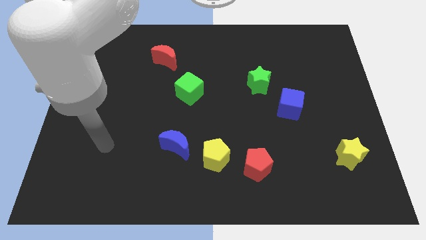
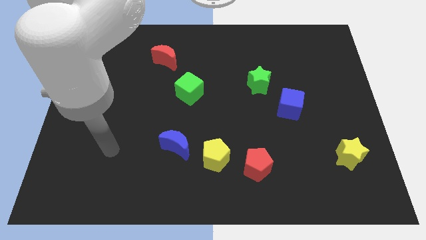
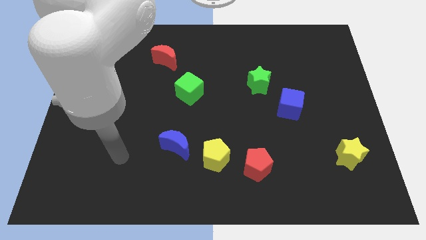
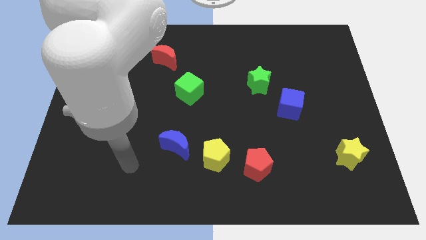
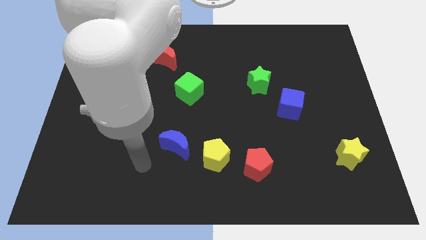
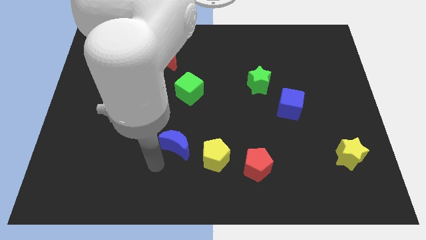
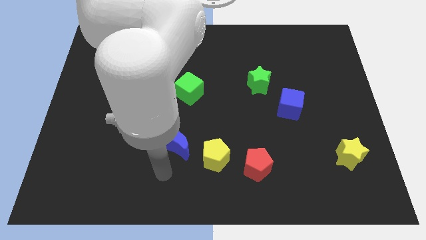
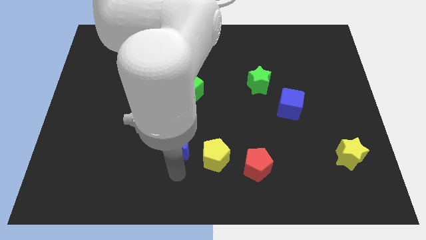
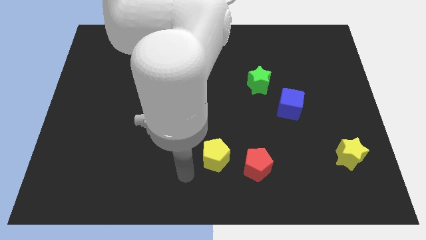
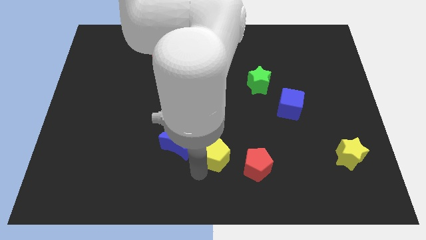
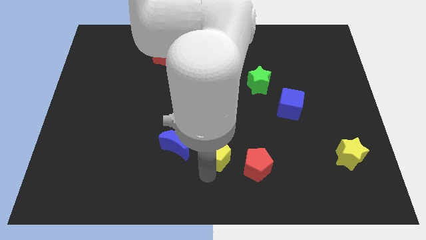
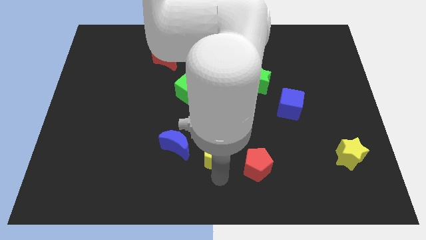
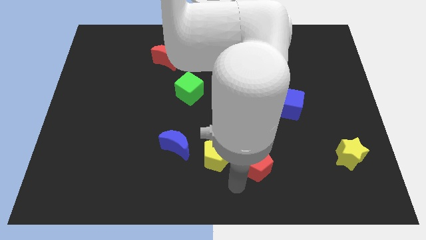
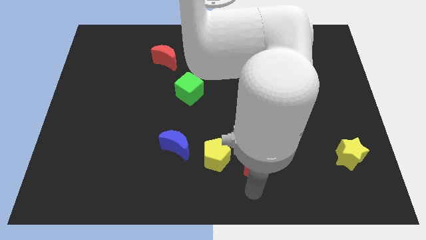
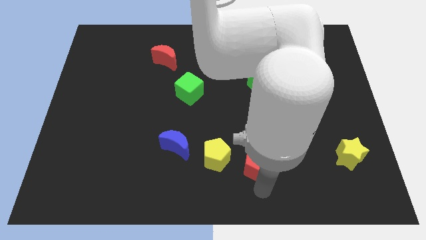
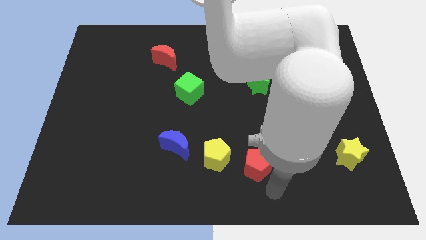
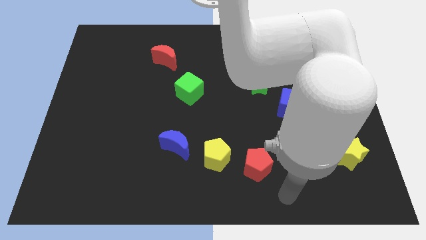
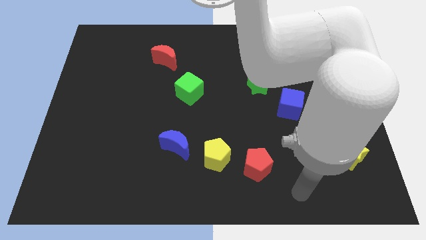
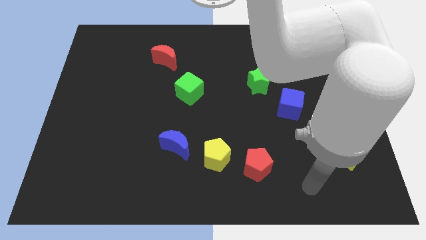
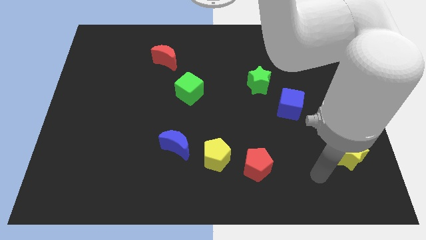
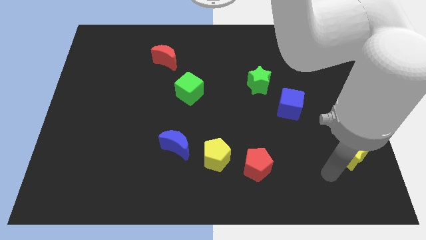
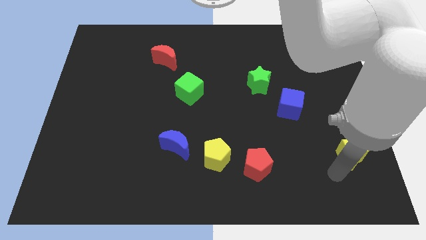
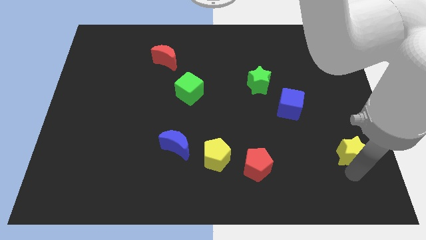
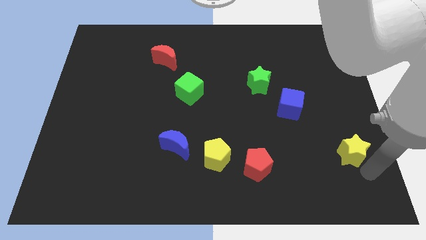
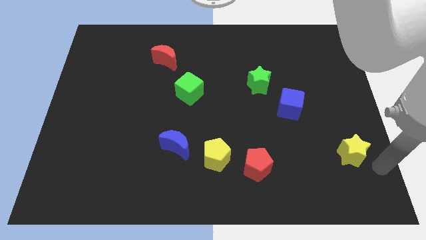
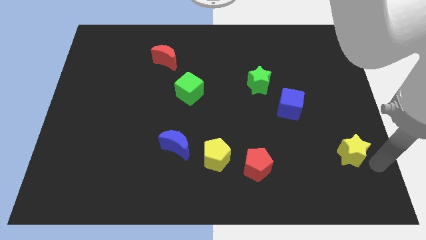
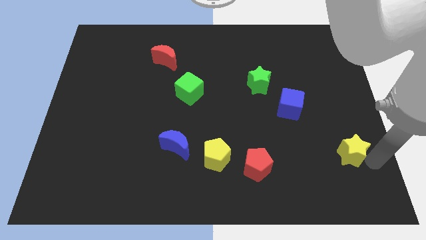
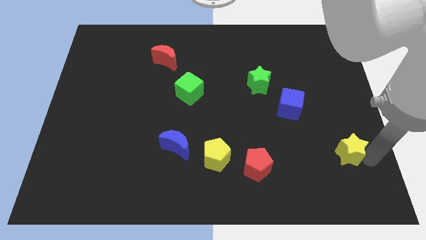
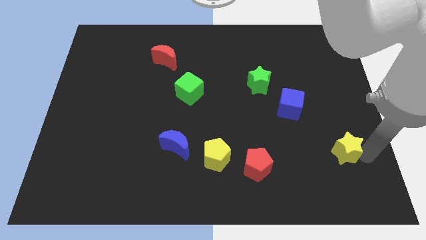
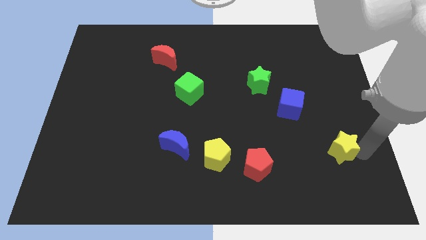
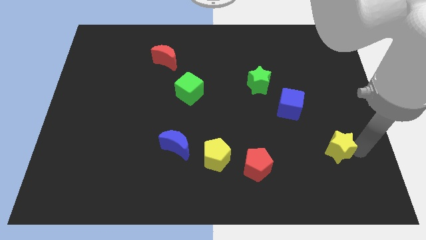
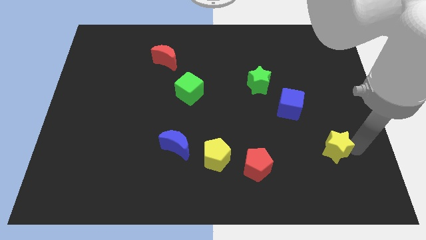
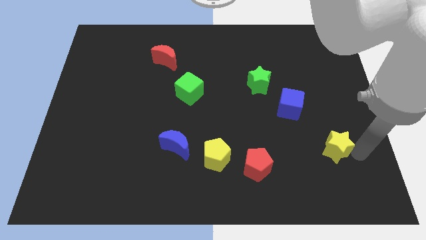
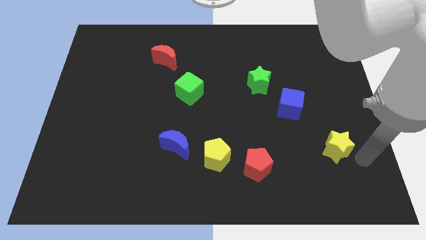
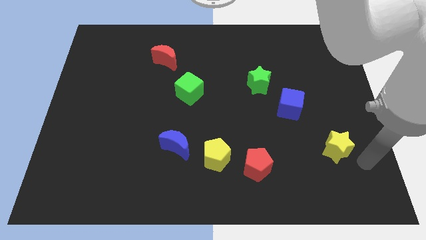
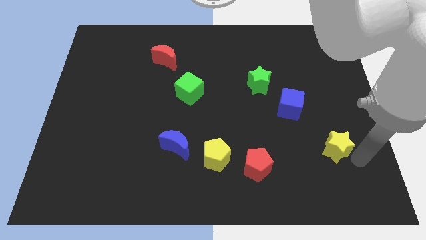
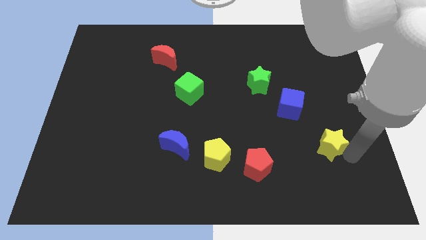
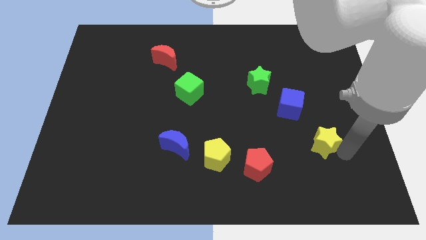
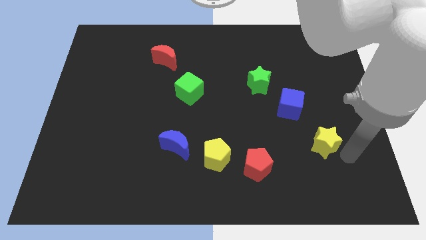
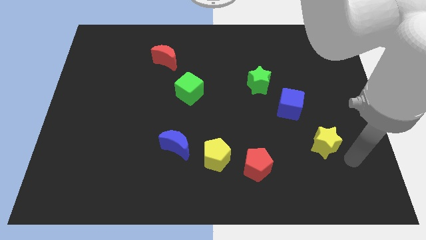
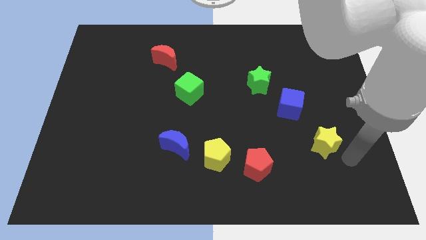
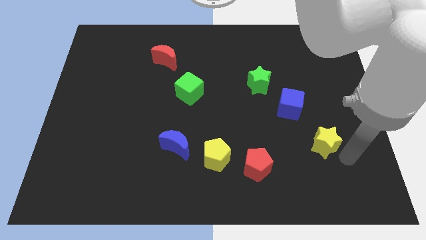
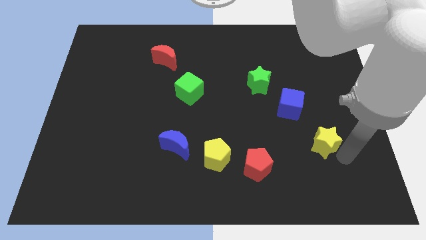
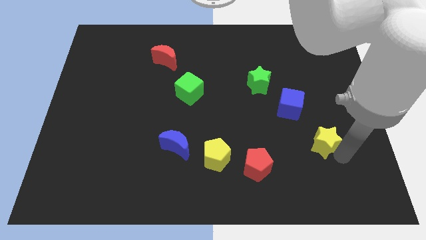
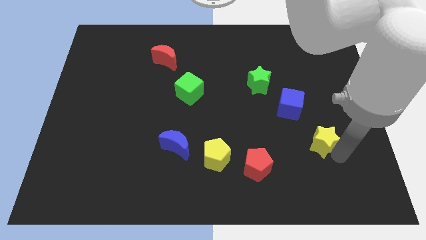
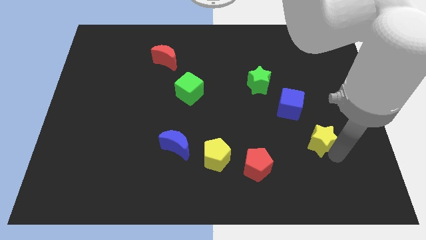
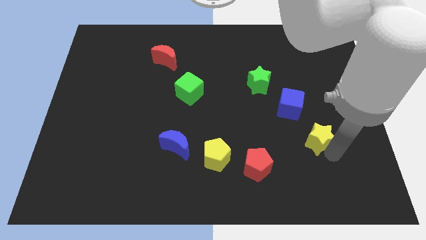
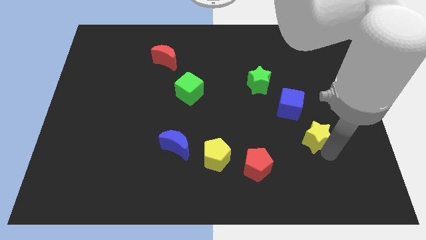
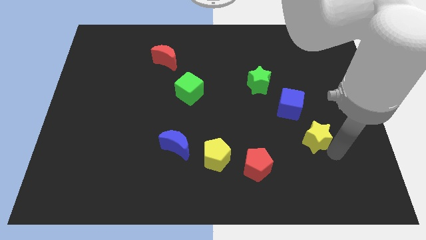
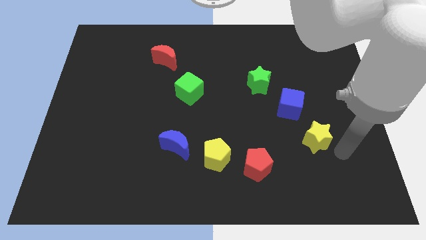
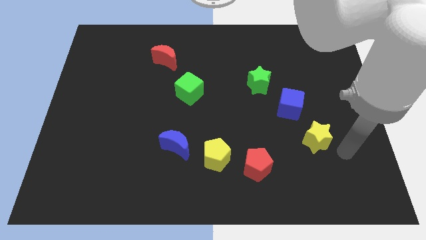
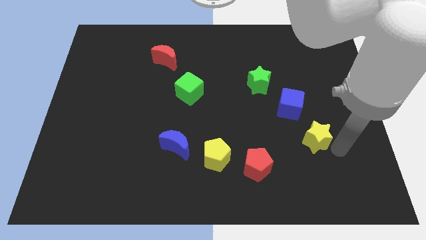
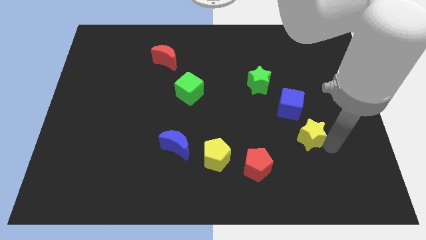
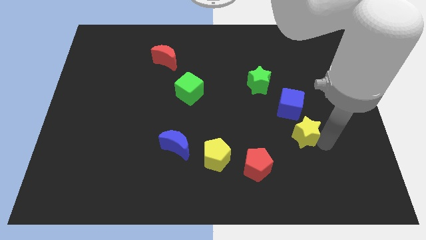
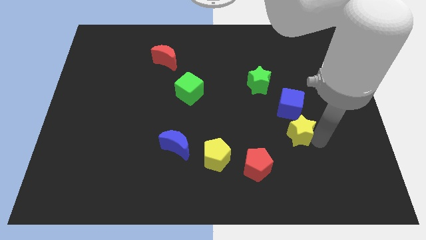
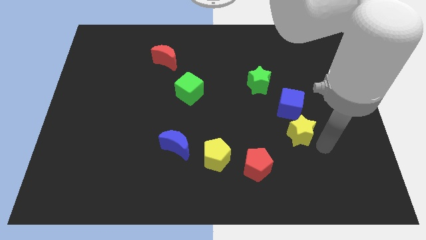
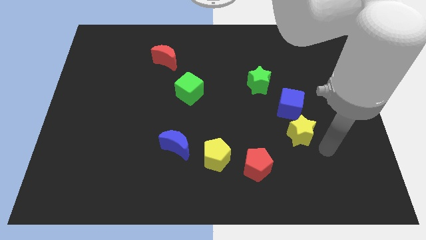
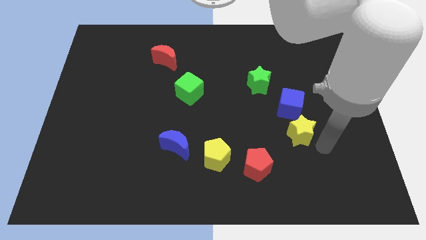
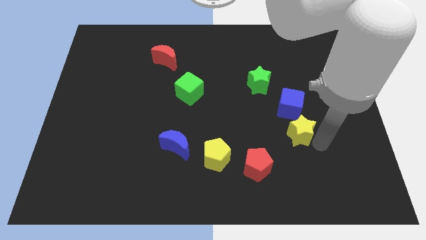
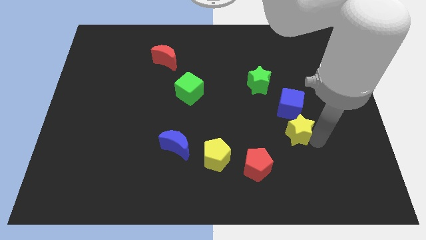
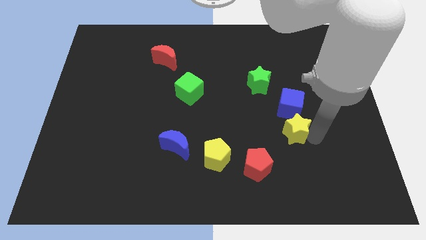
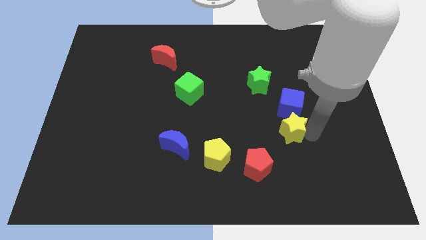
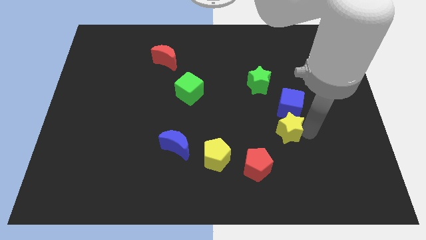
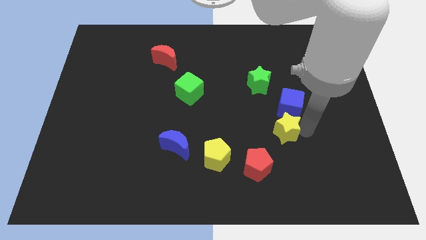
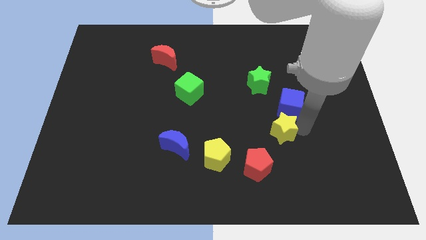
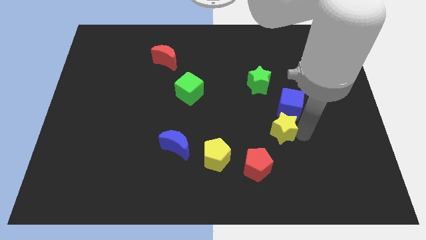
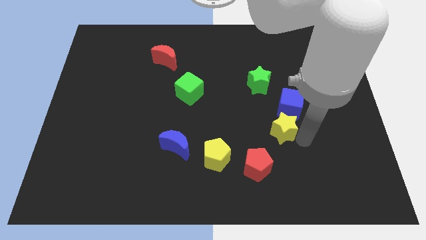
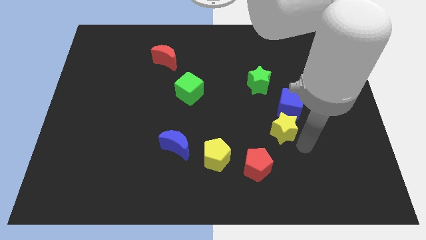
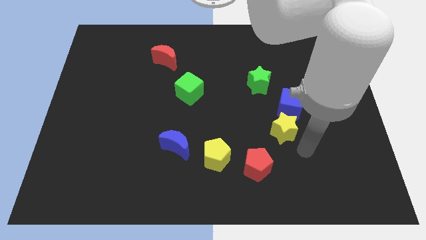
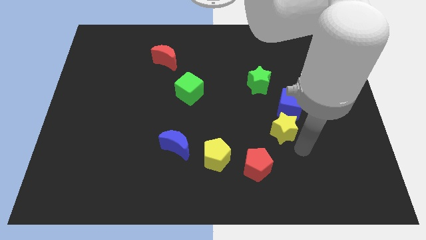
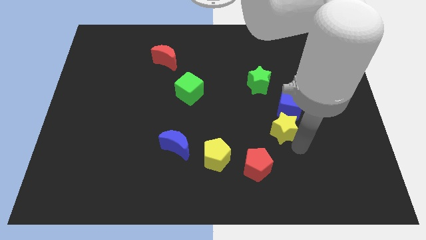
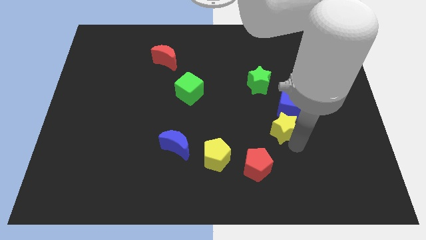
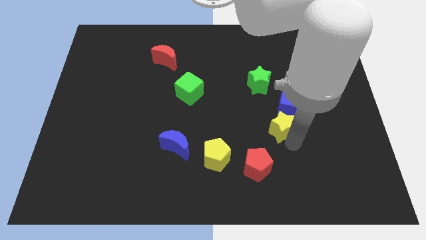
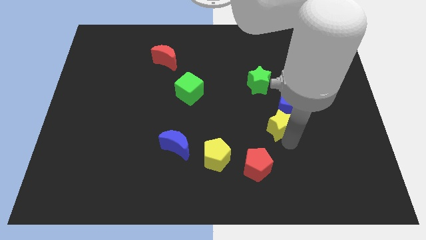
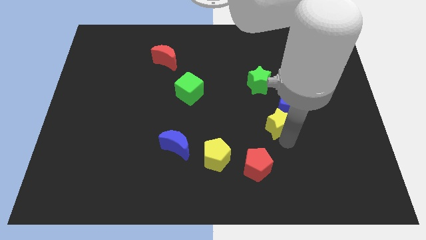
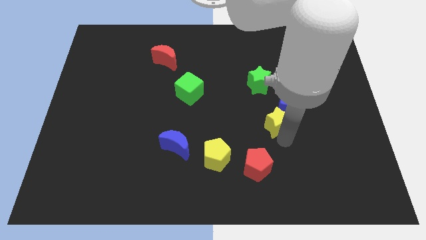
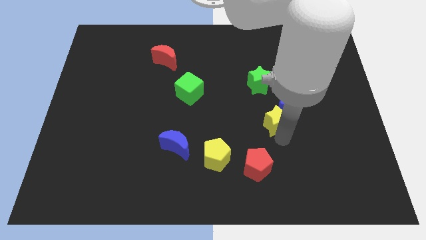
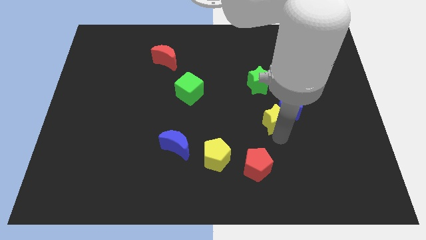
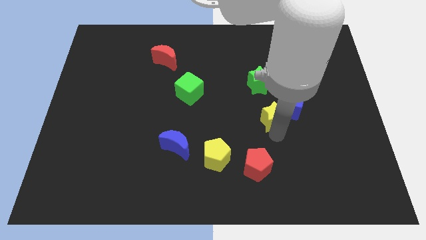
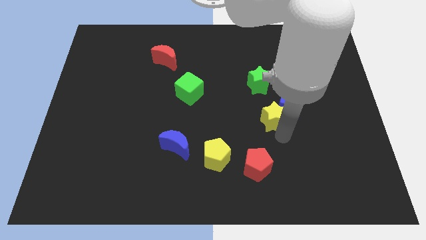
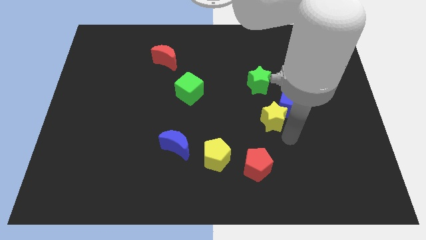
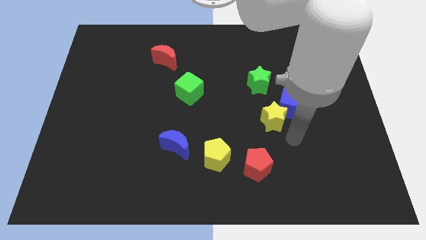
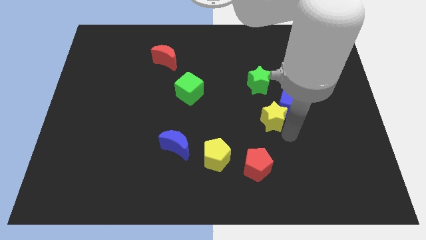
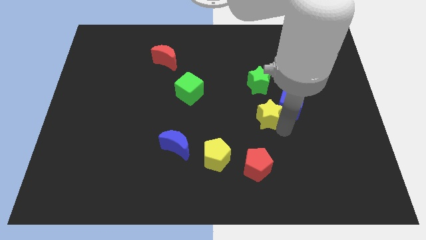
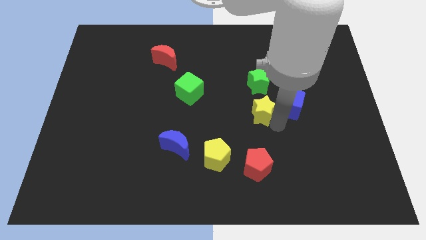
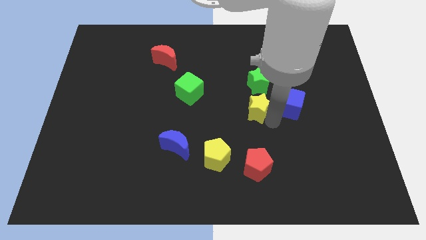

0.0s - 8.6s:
push the yellow star upwards and left
